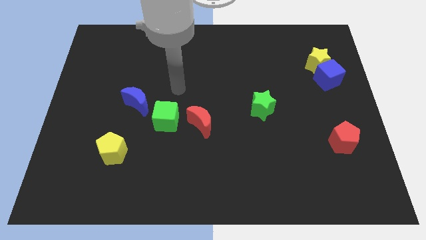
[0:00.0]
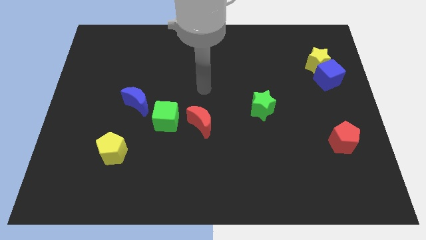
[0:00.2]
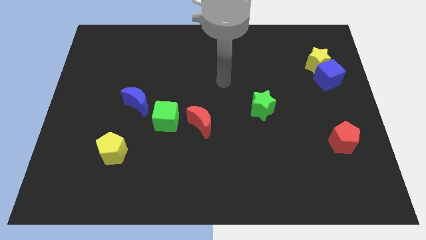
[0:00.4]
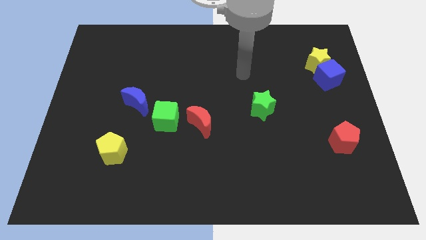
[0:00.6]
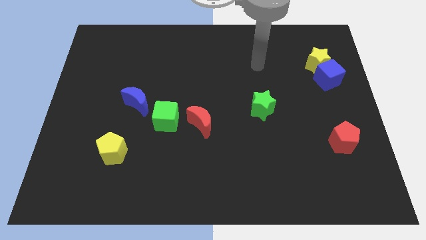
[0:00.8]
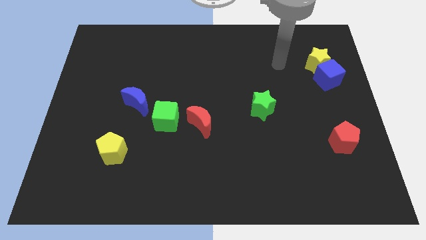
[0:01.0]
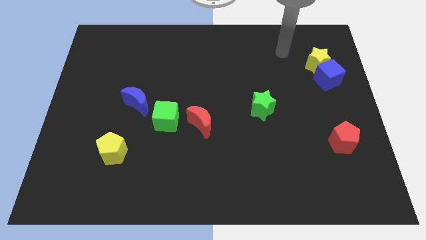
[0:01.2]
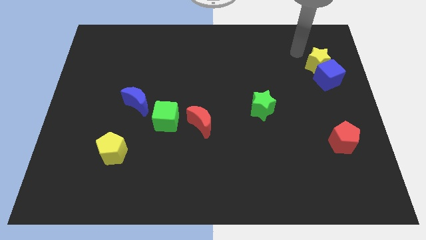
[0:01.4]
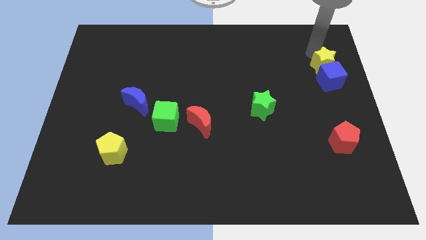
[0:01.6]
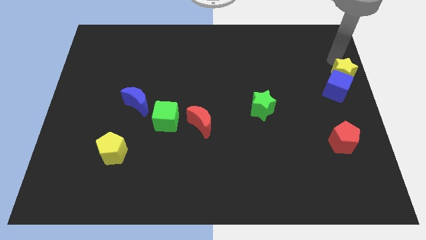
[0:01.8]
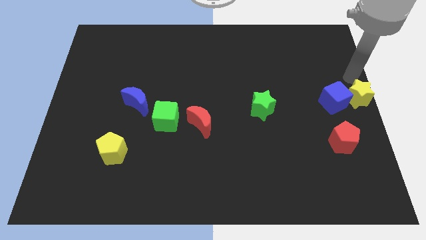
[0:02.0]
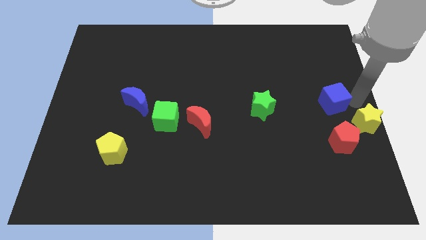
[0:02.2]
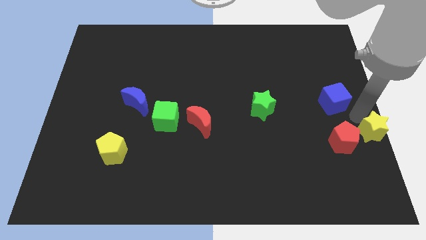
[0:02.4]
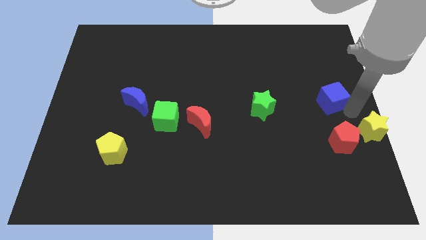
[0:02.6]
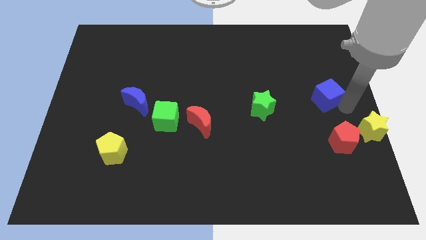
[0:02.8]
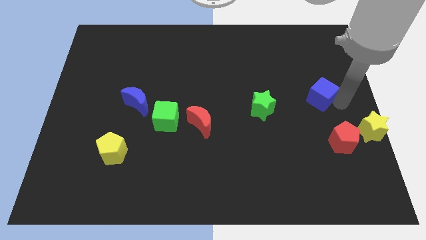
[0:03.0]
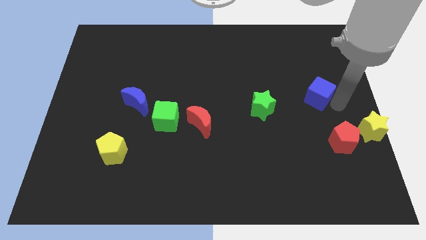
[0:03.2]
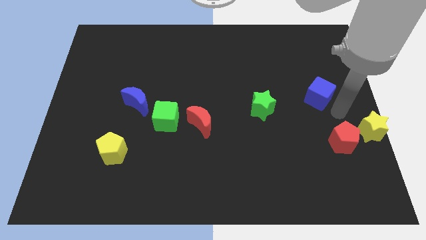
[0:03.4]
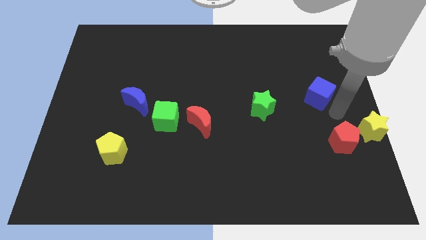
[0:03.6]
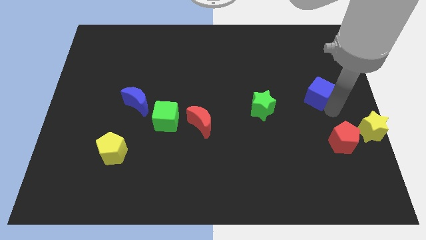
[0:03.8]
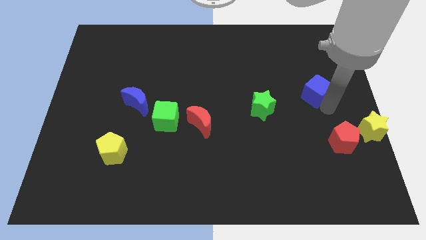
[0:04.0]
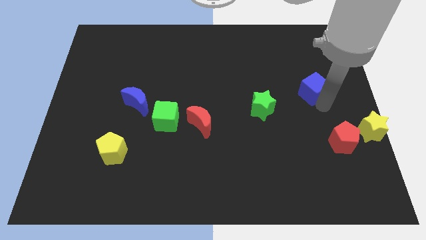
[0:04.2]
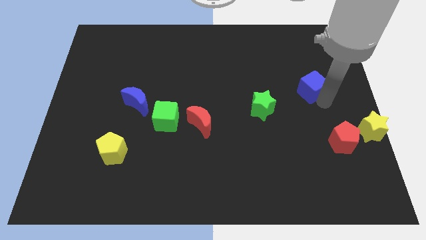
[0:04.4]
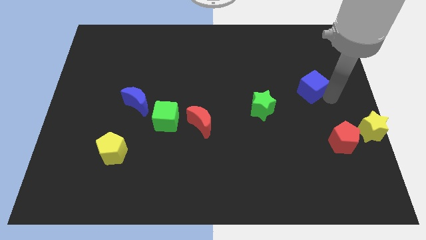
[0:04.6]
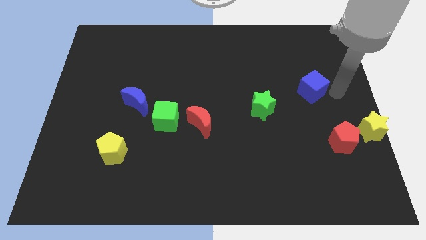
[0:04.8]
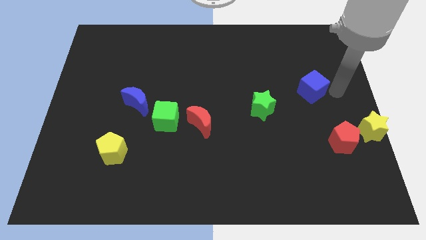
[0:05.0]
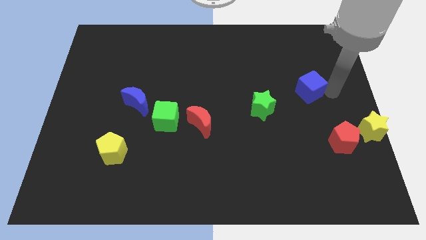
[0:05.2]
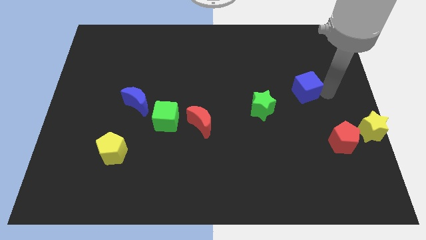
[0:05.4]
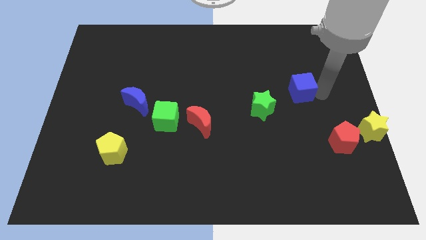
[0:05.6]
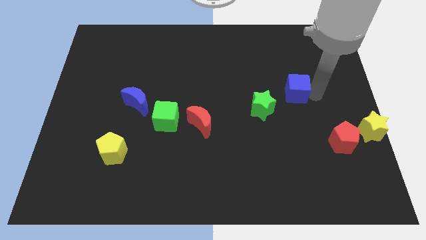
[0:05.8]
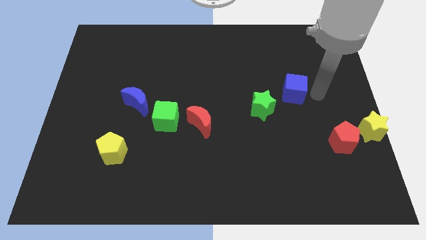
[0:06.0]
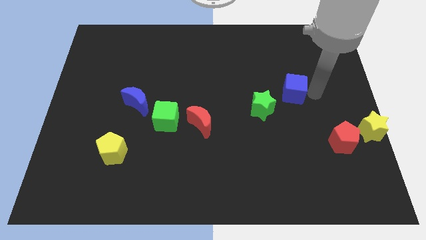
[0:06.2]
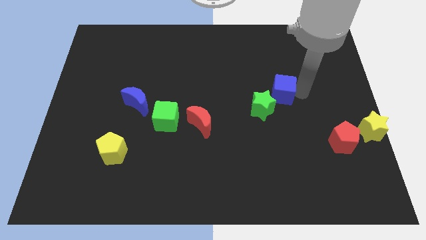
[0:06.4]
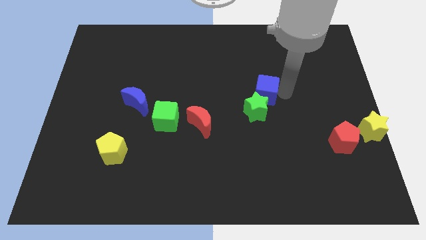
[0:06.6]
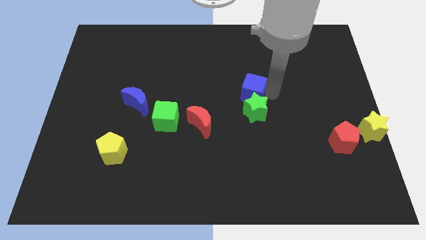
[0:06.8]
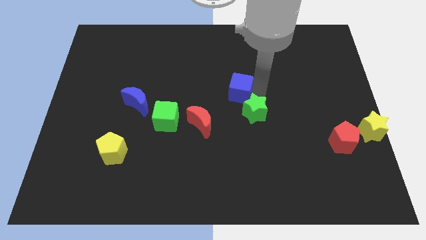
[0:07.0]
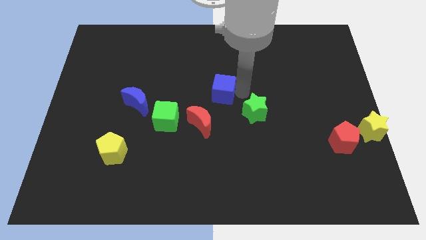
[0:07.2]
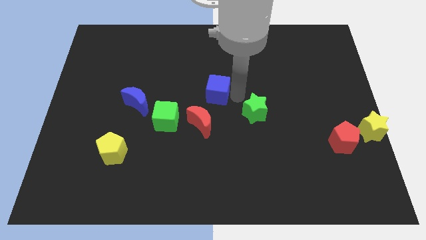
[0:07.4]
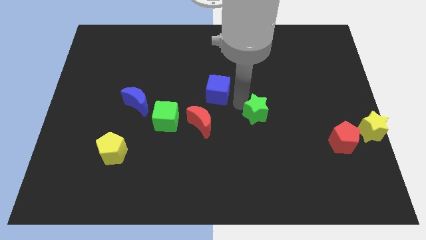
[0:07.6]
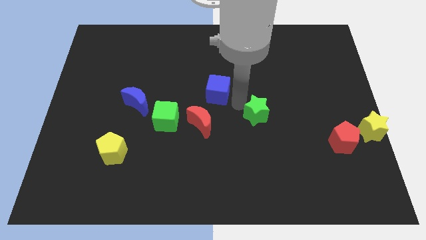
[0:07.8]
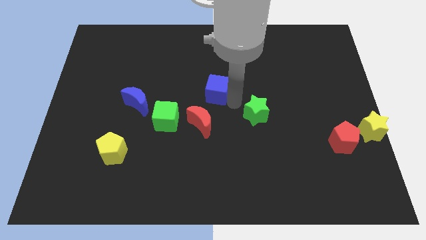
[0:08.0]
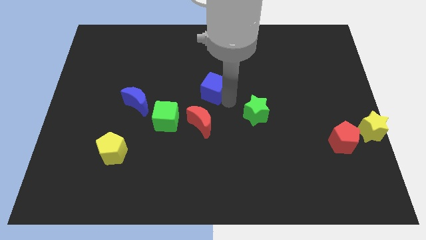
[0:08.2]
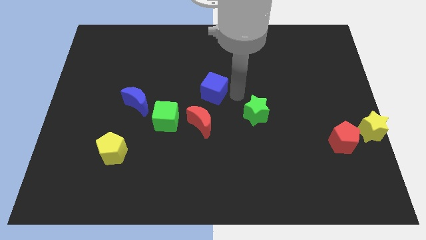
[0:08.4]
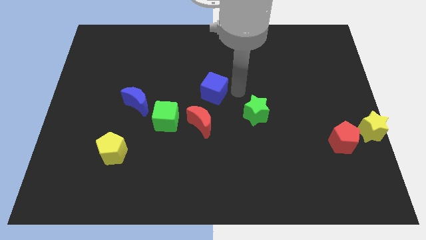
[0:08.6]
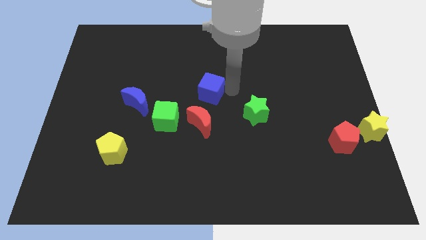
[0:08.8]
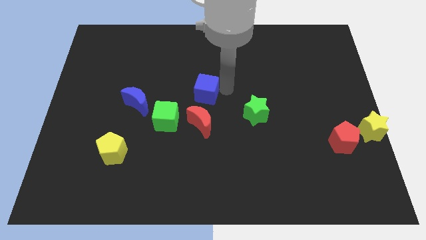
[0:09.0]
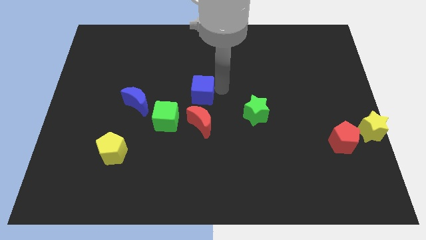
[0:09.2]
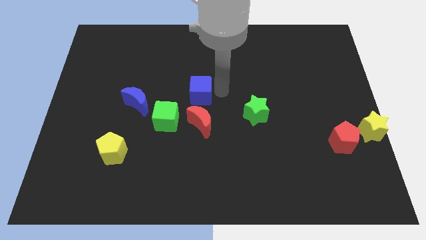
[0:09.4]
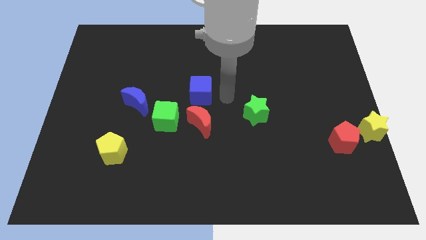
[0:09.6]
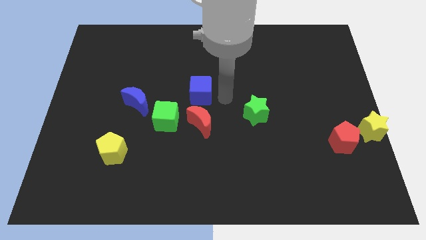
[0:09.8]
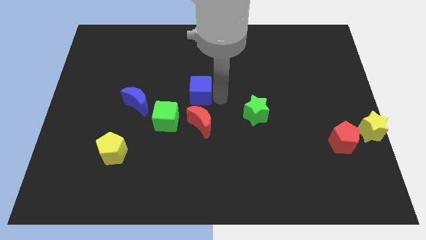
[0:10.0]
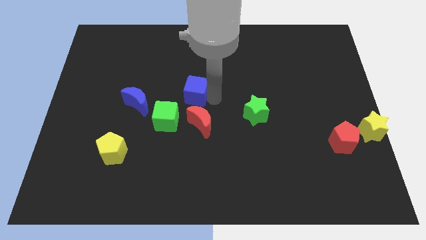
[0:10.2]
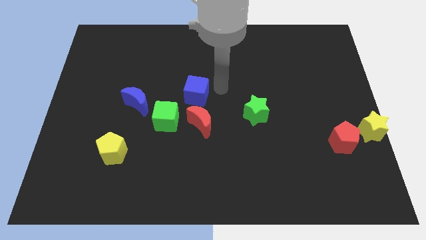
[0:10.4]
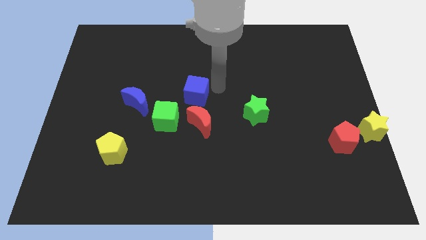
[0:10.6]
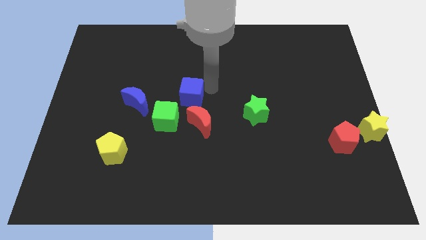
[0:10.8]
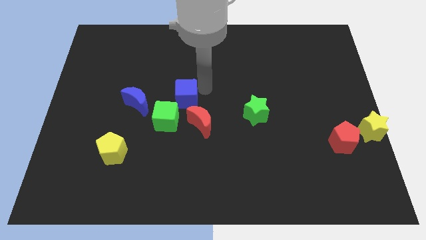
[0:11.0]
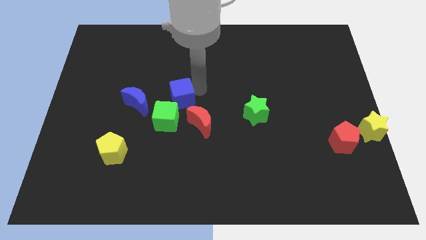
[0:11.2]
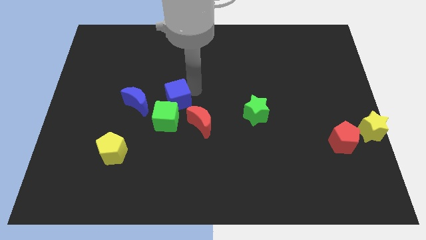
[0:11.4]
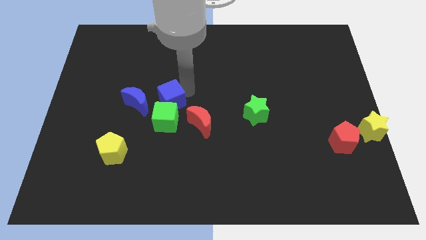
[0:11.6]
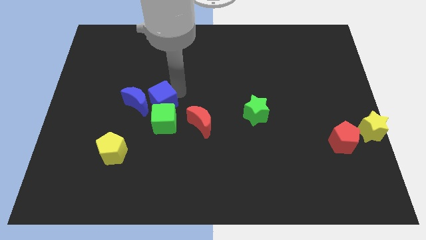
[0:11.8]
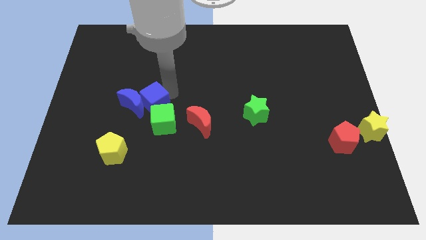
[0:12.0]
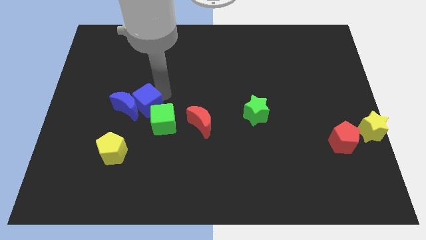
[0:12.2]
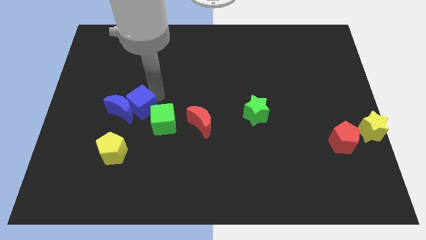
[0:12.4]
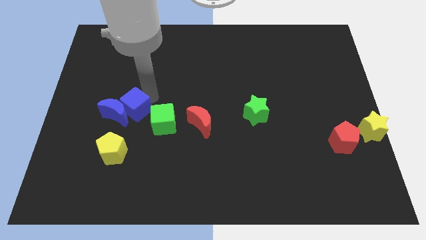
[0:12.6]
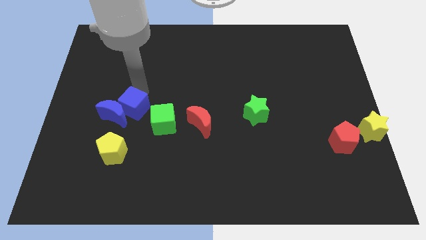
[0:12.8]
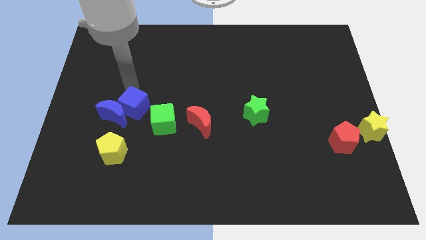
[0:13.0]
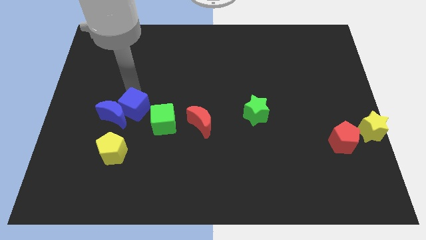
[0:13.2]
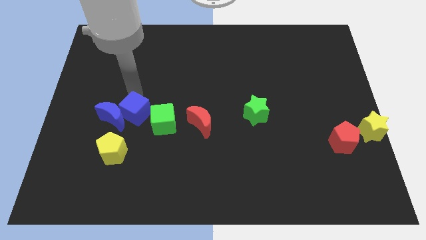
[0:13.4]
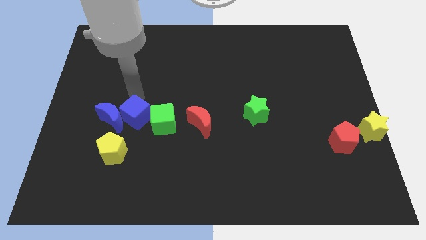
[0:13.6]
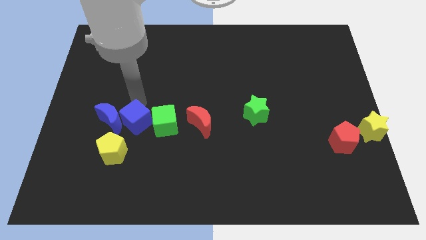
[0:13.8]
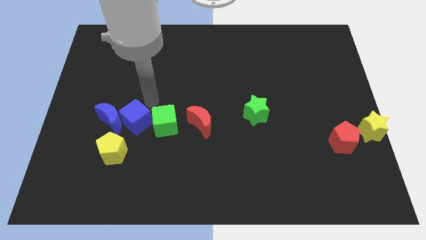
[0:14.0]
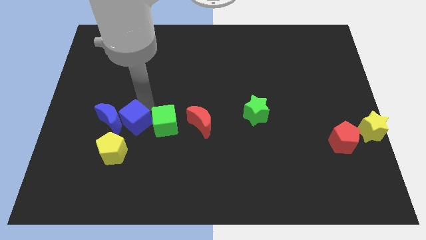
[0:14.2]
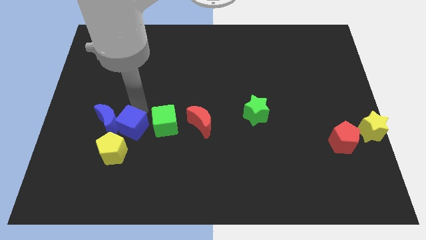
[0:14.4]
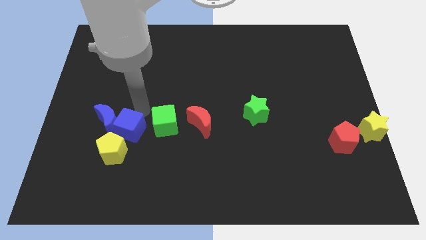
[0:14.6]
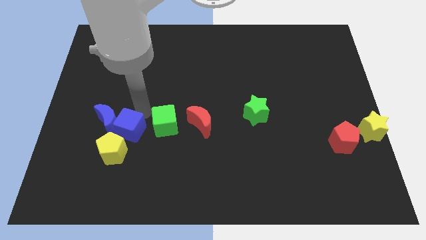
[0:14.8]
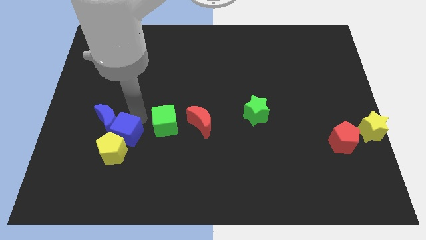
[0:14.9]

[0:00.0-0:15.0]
push the blue cube close to the yellow pentagon

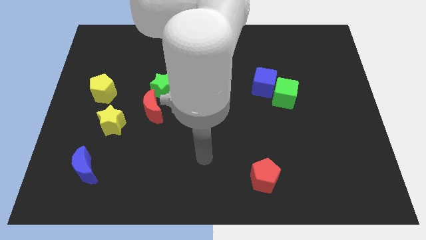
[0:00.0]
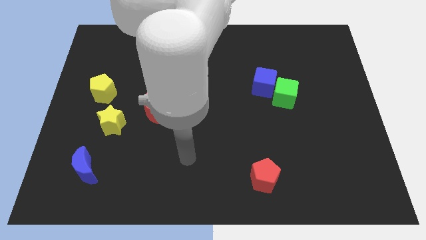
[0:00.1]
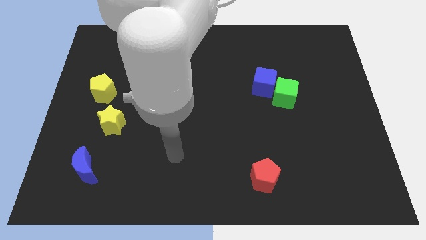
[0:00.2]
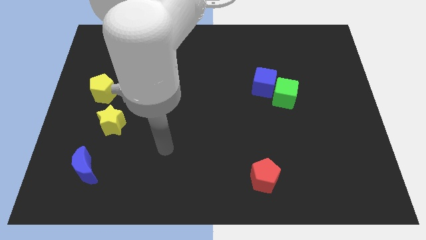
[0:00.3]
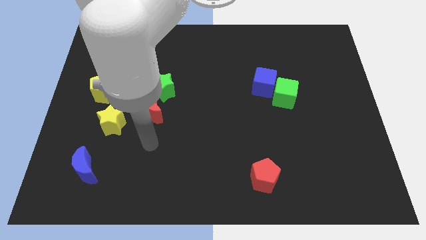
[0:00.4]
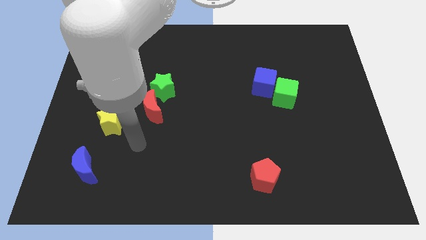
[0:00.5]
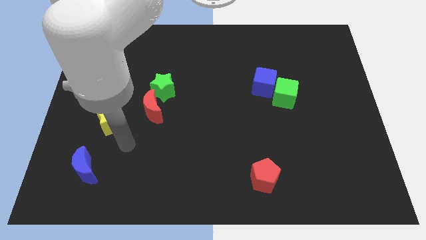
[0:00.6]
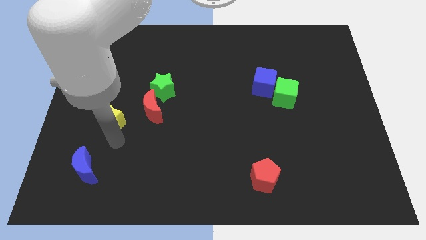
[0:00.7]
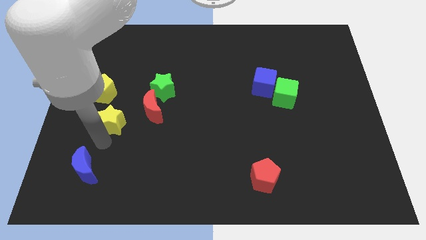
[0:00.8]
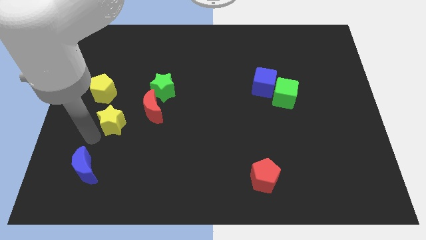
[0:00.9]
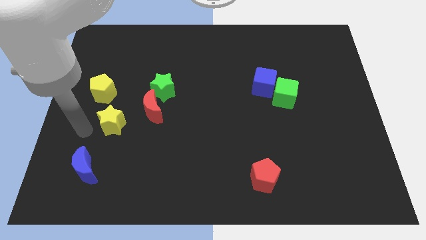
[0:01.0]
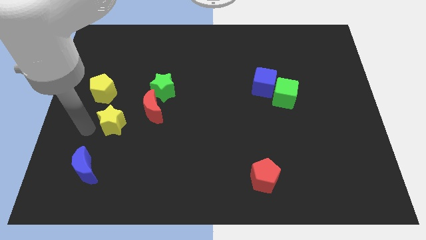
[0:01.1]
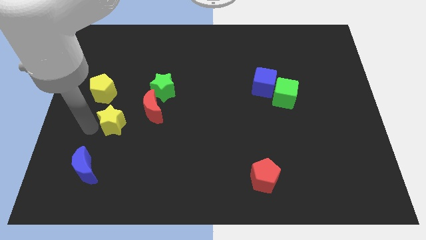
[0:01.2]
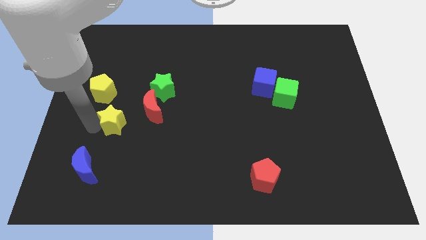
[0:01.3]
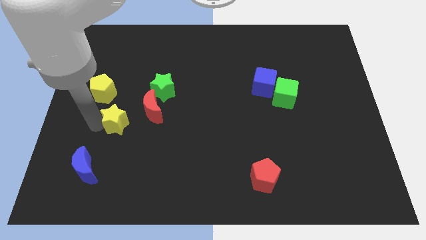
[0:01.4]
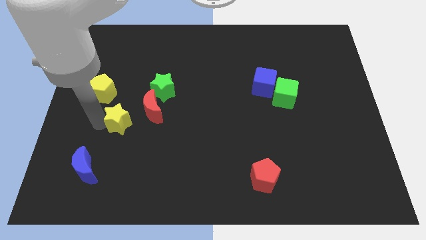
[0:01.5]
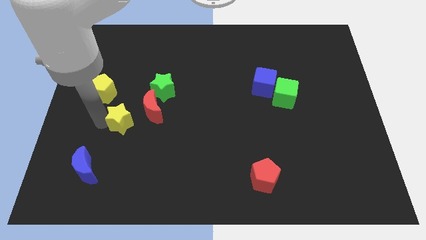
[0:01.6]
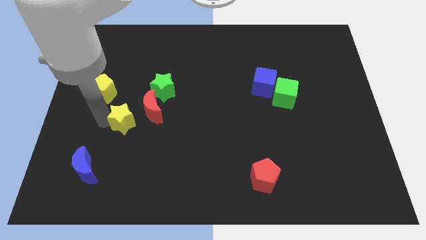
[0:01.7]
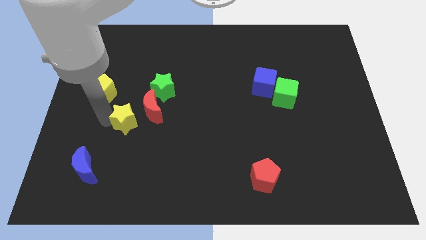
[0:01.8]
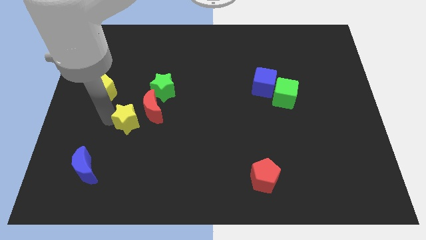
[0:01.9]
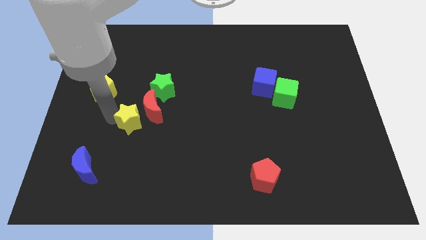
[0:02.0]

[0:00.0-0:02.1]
push the yellow star close to the red moon
